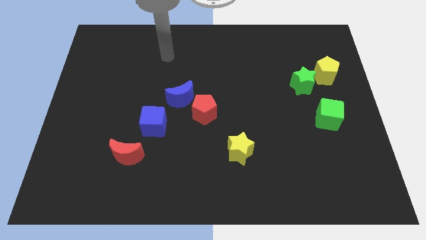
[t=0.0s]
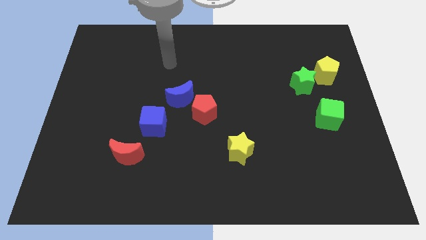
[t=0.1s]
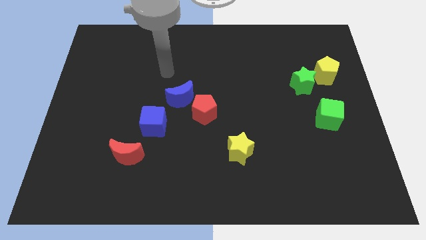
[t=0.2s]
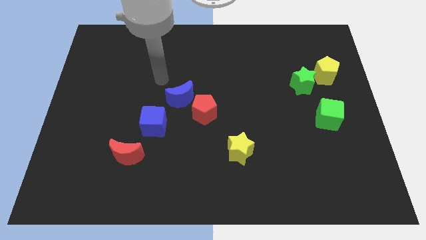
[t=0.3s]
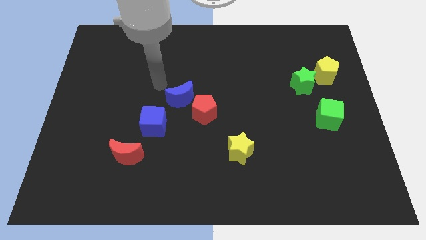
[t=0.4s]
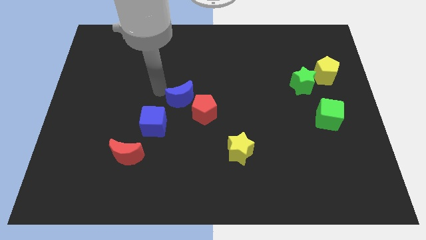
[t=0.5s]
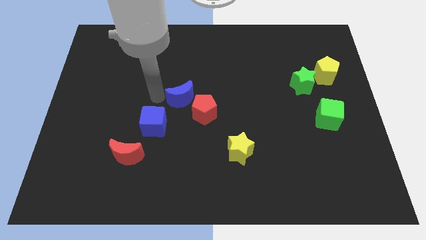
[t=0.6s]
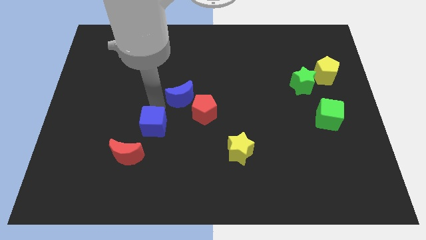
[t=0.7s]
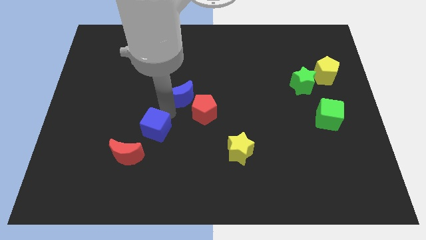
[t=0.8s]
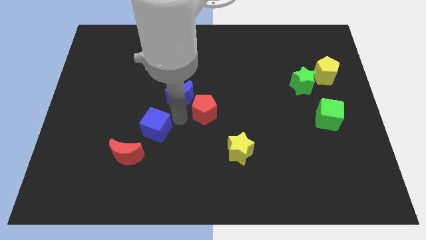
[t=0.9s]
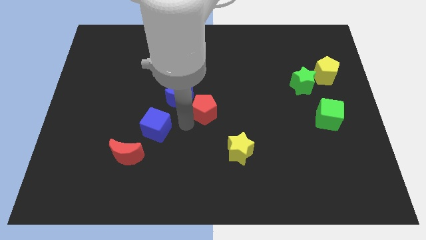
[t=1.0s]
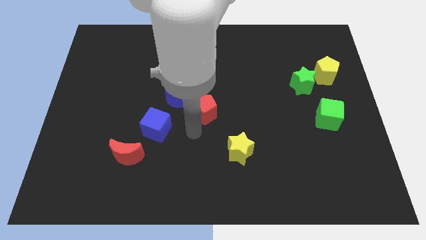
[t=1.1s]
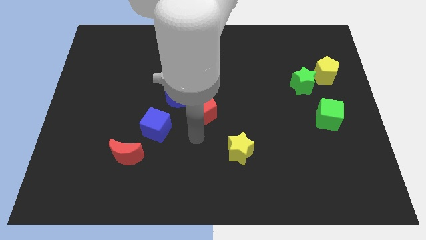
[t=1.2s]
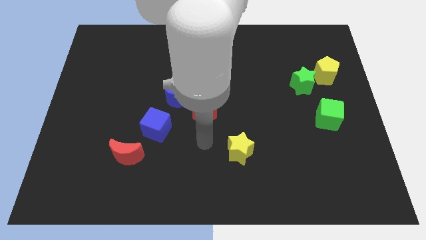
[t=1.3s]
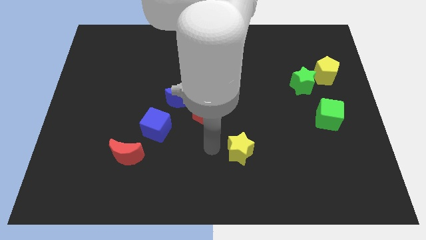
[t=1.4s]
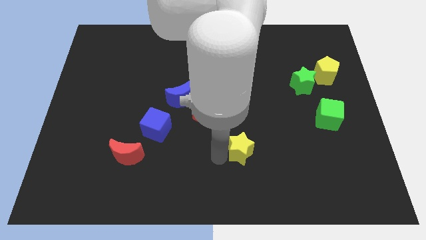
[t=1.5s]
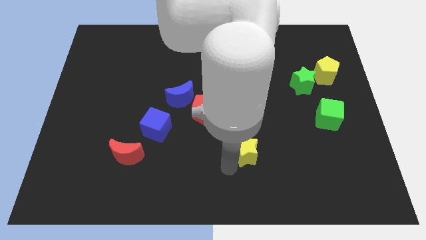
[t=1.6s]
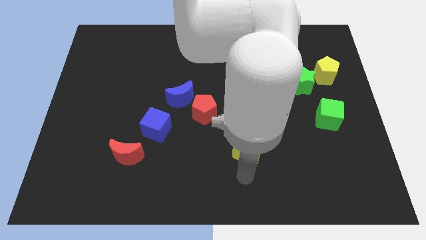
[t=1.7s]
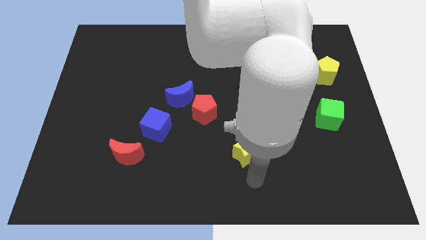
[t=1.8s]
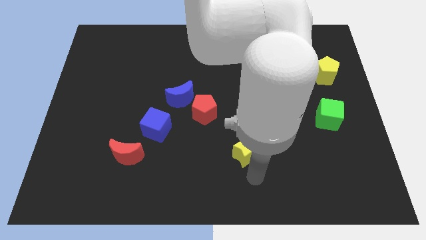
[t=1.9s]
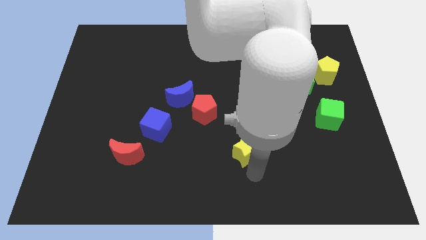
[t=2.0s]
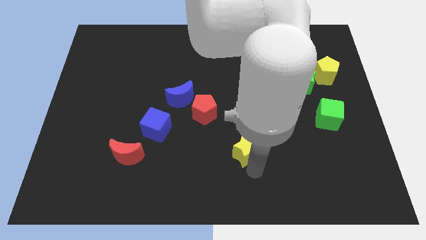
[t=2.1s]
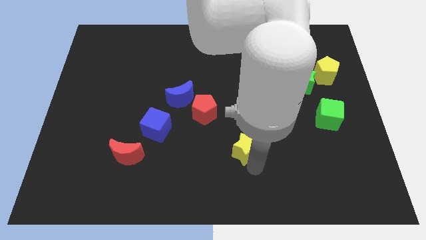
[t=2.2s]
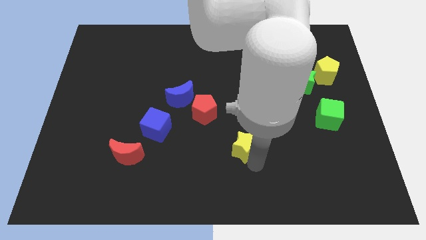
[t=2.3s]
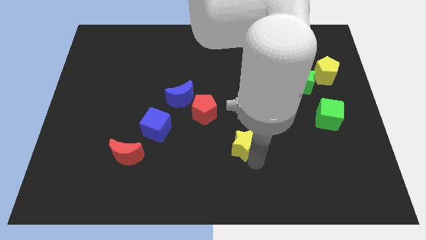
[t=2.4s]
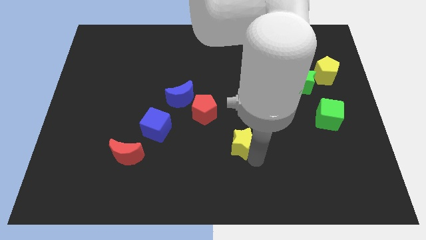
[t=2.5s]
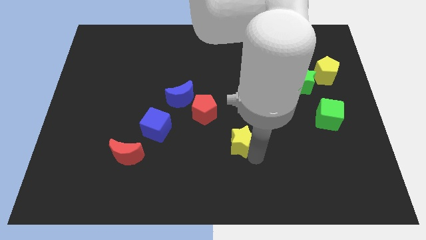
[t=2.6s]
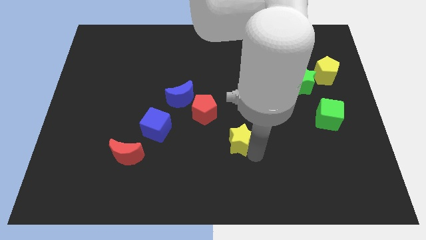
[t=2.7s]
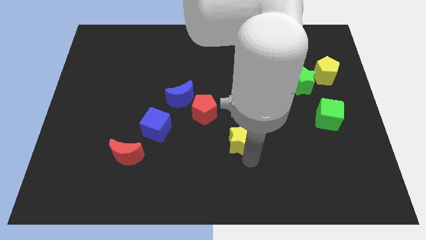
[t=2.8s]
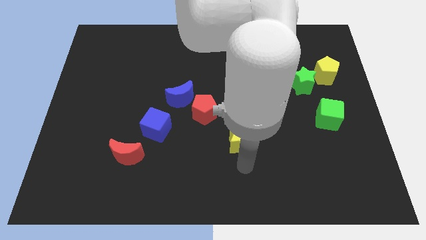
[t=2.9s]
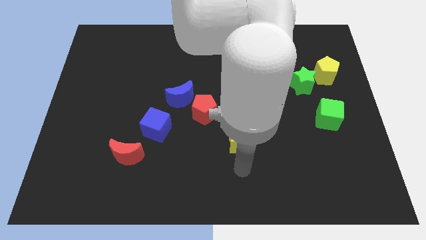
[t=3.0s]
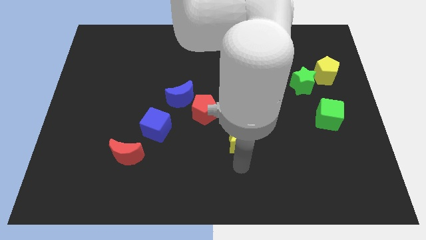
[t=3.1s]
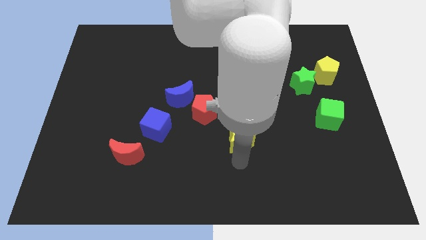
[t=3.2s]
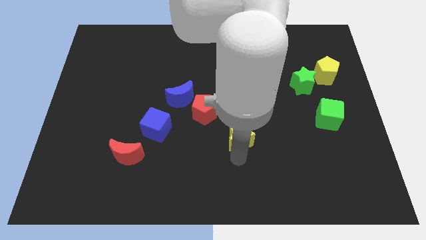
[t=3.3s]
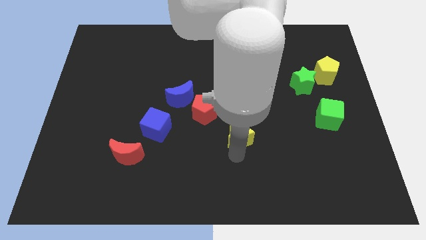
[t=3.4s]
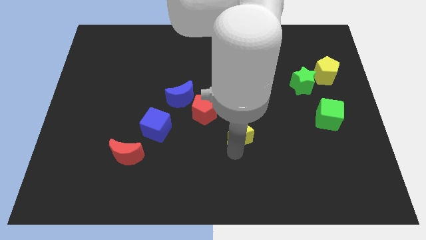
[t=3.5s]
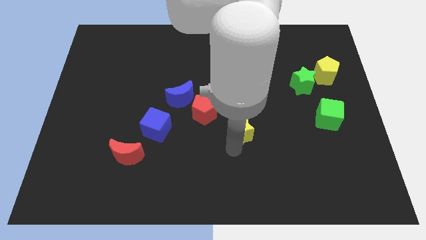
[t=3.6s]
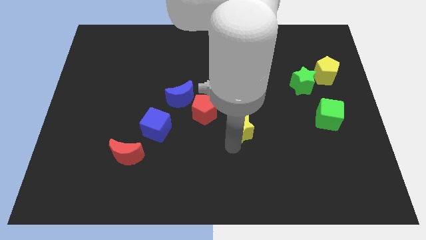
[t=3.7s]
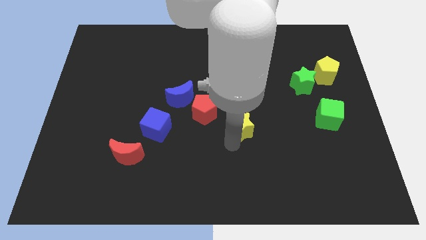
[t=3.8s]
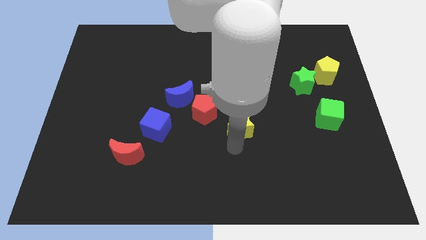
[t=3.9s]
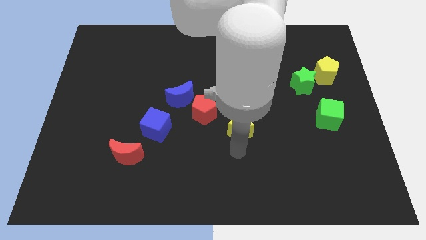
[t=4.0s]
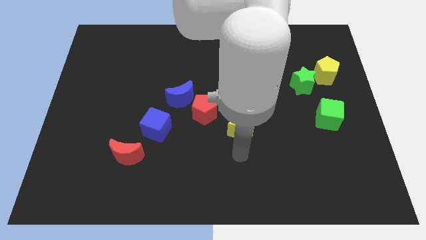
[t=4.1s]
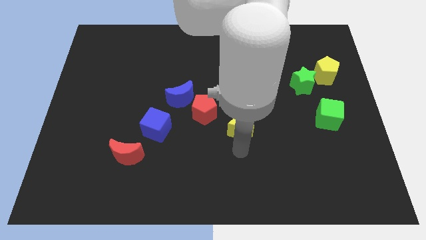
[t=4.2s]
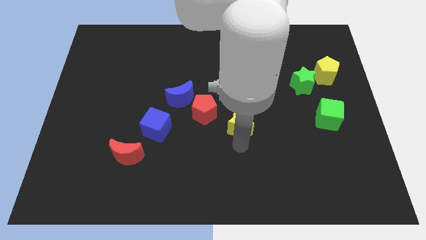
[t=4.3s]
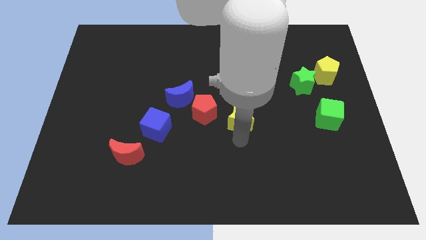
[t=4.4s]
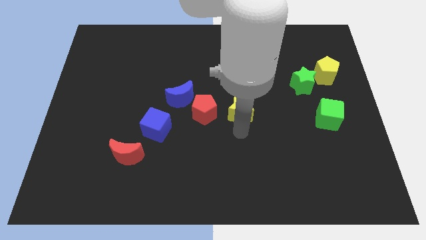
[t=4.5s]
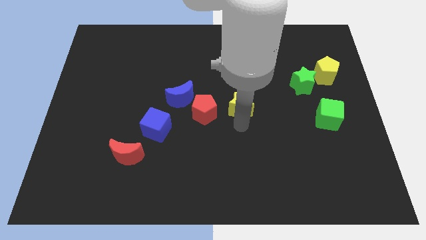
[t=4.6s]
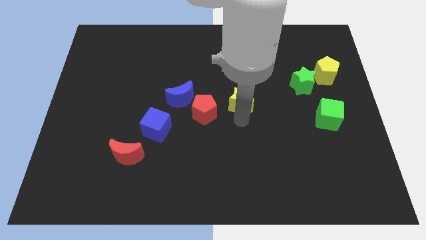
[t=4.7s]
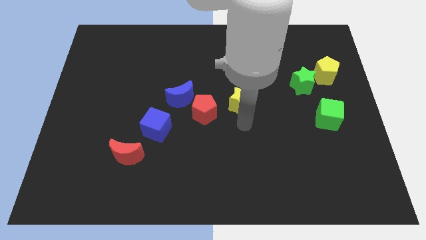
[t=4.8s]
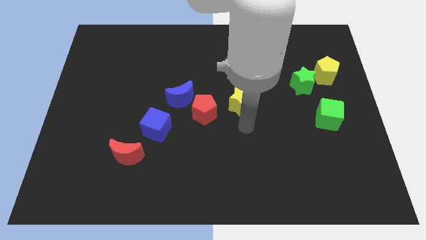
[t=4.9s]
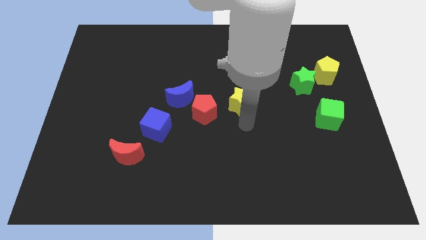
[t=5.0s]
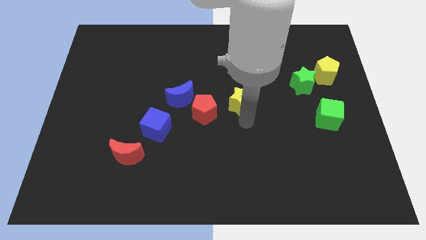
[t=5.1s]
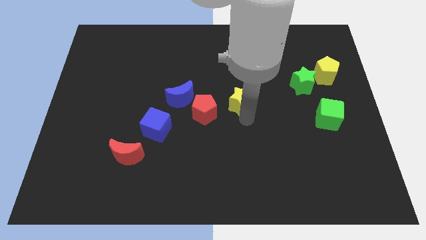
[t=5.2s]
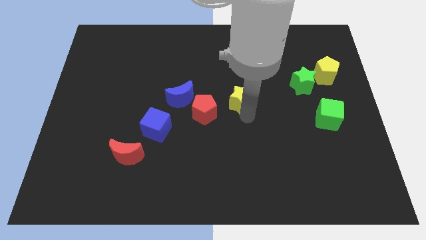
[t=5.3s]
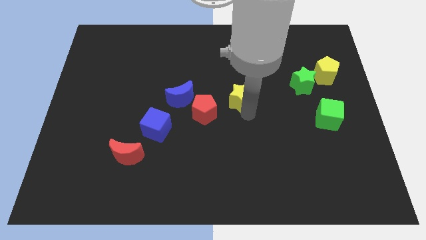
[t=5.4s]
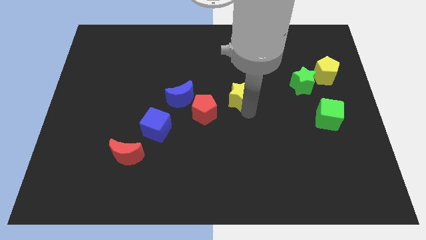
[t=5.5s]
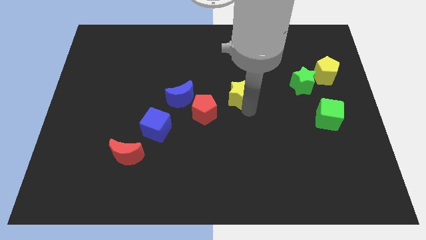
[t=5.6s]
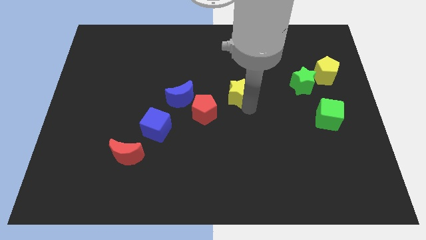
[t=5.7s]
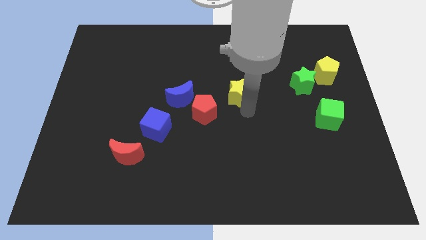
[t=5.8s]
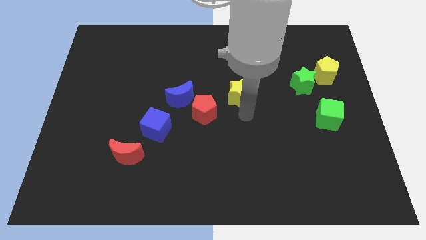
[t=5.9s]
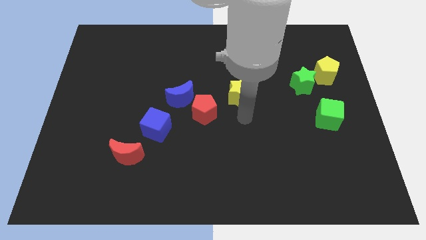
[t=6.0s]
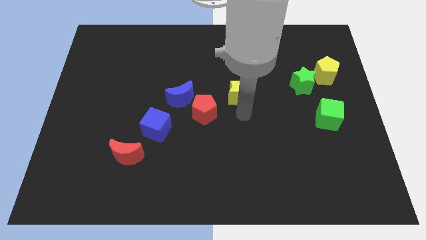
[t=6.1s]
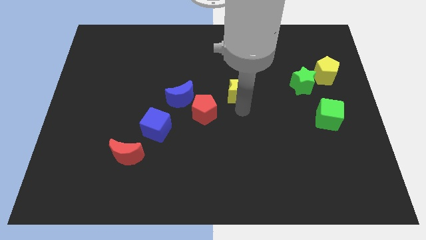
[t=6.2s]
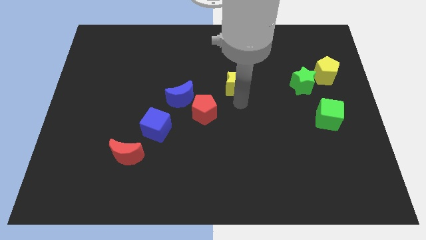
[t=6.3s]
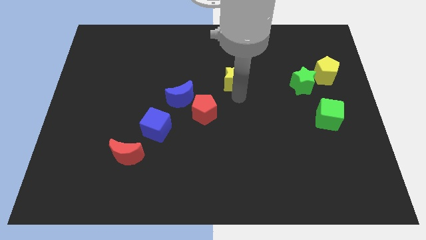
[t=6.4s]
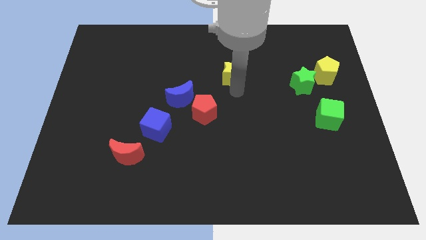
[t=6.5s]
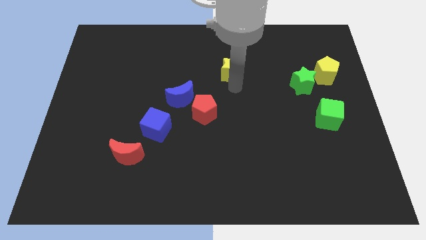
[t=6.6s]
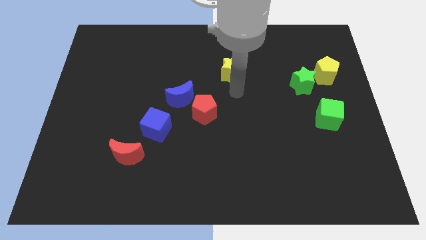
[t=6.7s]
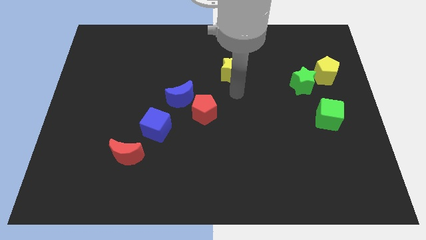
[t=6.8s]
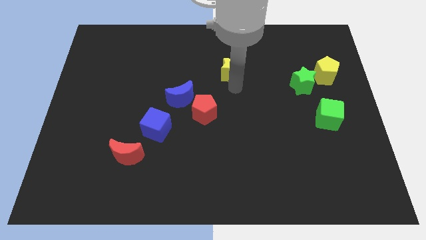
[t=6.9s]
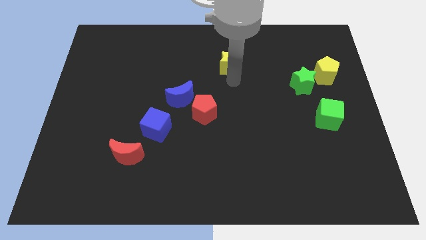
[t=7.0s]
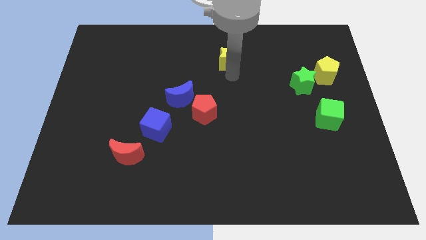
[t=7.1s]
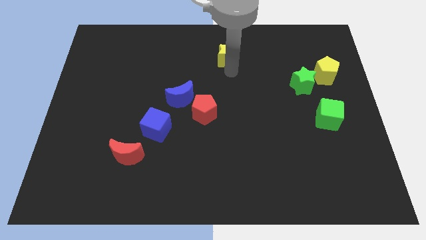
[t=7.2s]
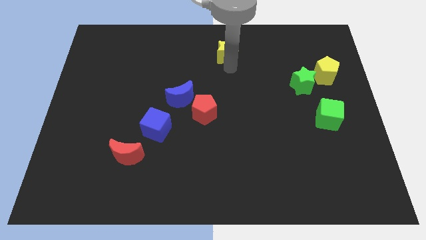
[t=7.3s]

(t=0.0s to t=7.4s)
push the yellow star to the top
